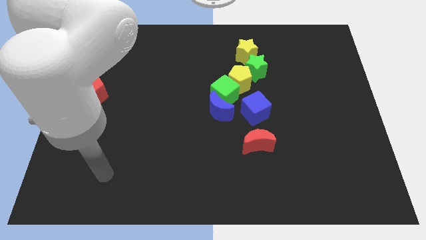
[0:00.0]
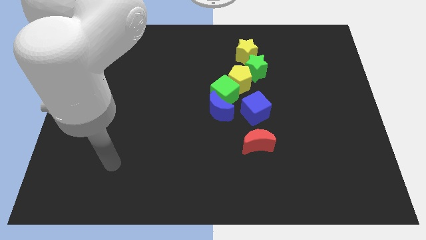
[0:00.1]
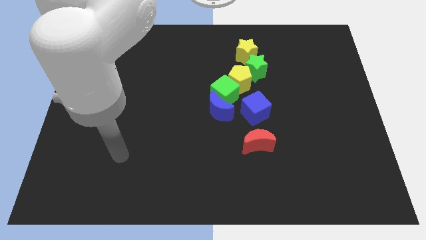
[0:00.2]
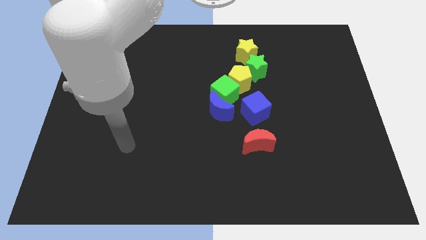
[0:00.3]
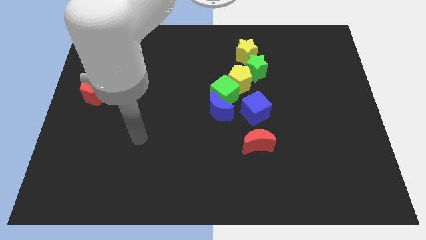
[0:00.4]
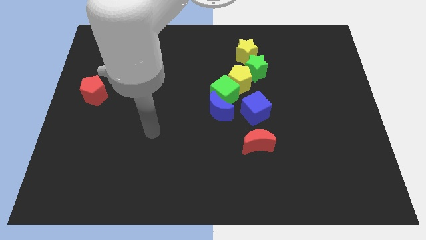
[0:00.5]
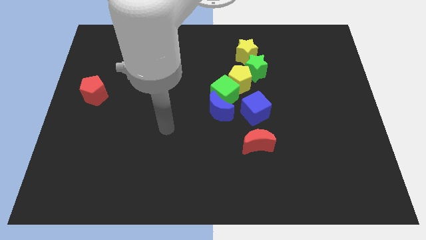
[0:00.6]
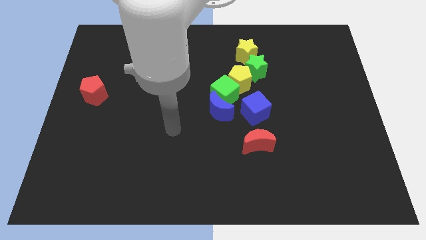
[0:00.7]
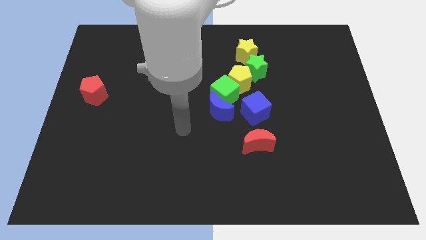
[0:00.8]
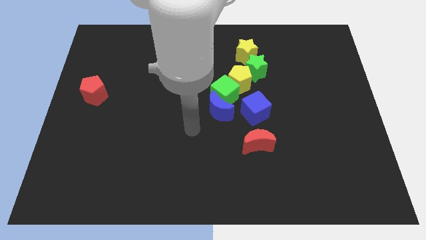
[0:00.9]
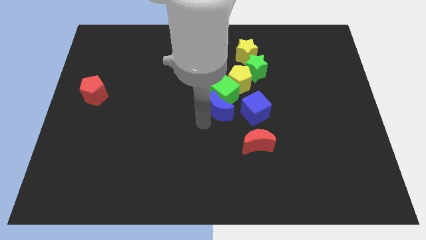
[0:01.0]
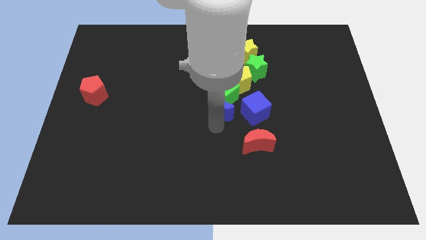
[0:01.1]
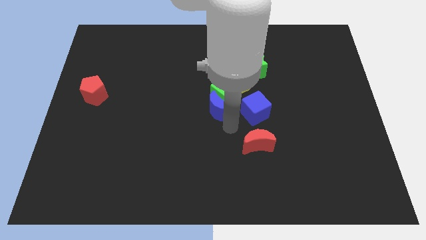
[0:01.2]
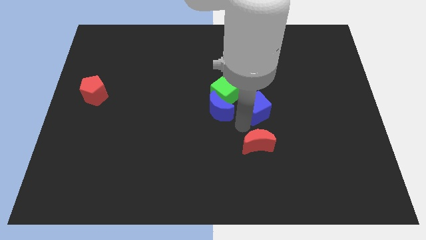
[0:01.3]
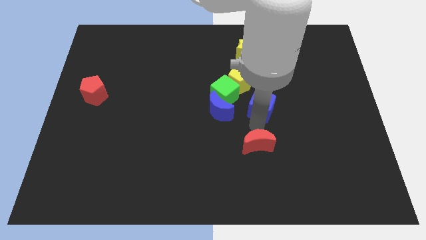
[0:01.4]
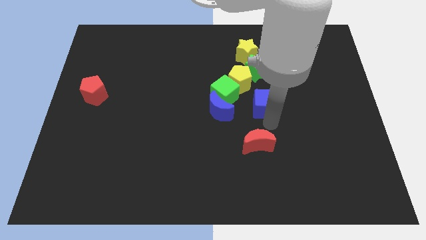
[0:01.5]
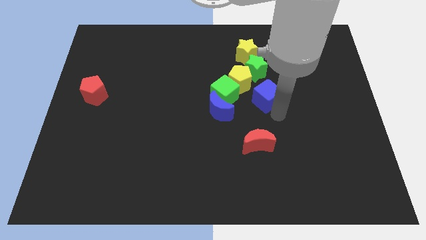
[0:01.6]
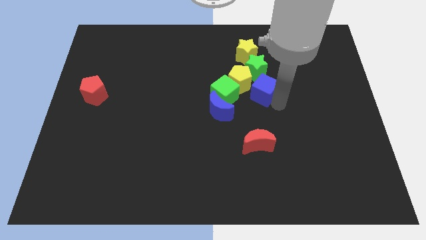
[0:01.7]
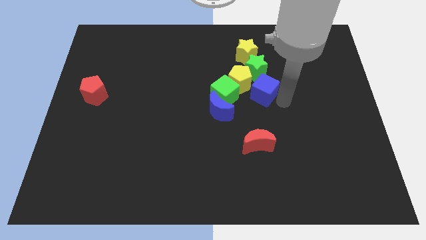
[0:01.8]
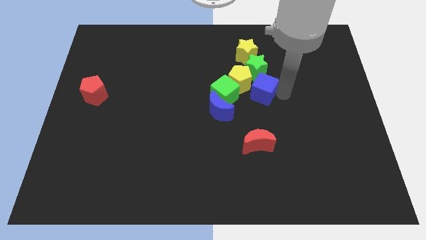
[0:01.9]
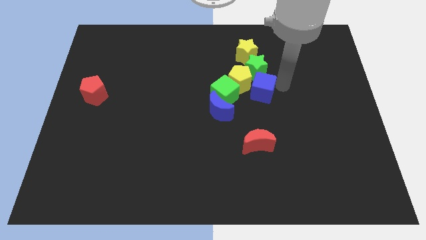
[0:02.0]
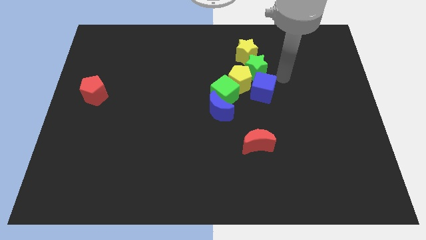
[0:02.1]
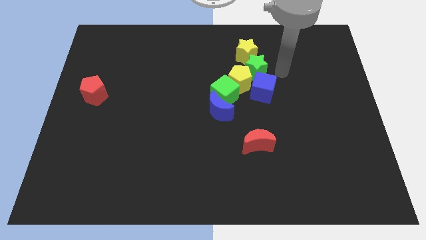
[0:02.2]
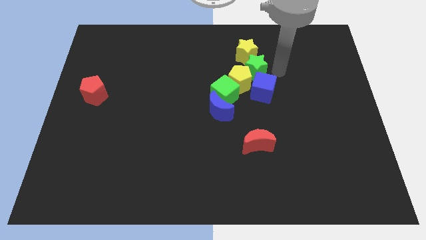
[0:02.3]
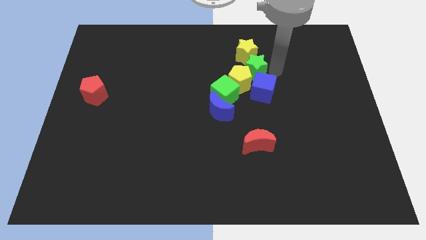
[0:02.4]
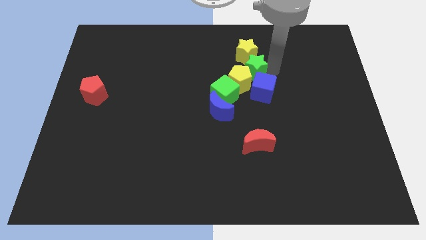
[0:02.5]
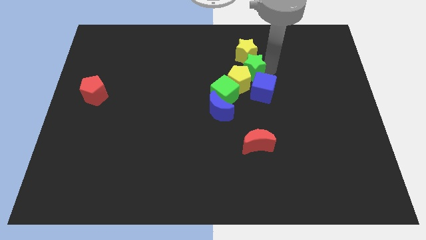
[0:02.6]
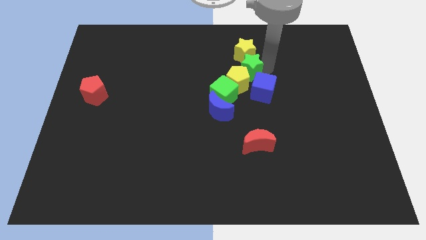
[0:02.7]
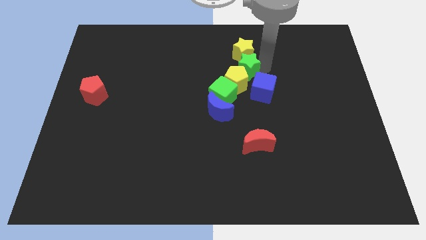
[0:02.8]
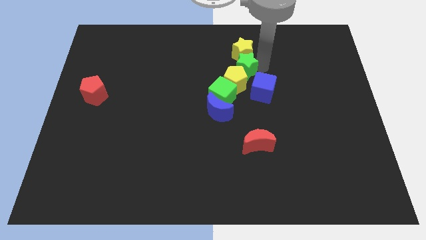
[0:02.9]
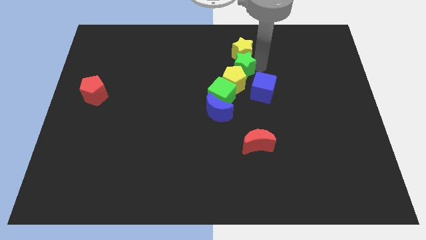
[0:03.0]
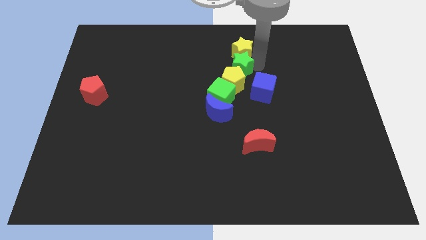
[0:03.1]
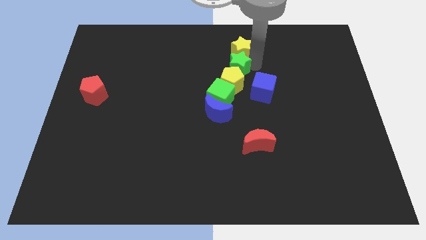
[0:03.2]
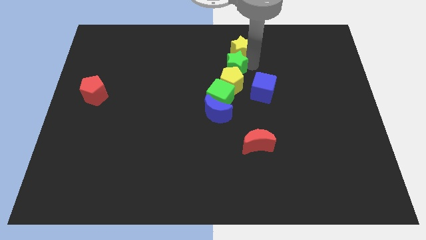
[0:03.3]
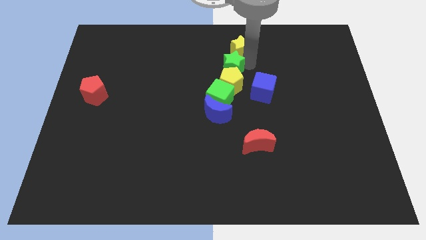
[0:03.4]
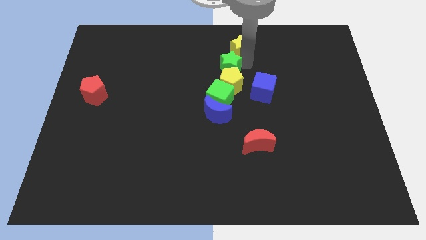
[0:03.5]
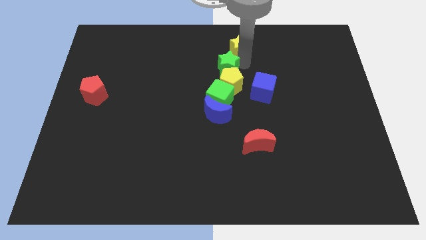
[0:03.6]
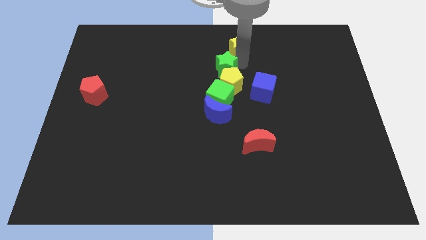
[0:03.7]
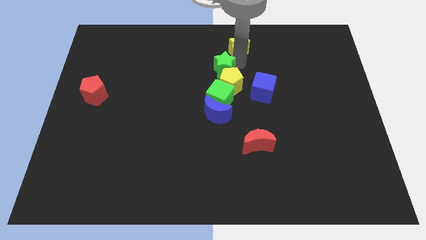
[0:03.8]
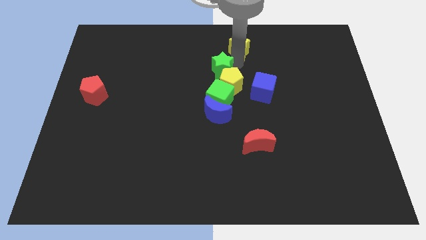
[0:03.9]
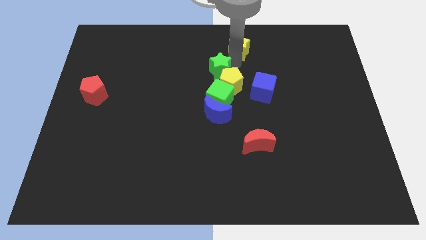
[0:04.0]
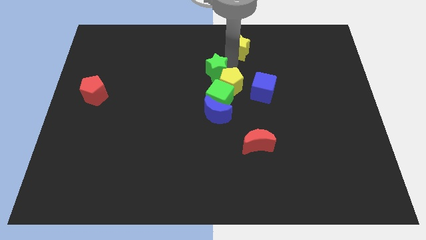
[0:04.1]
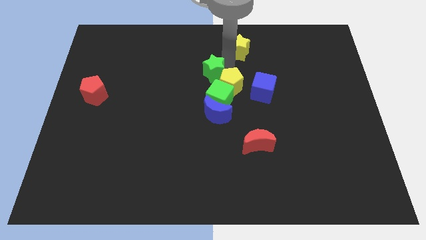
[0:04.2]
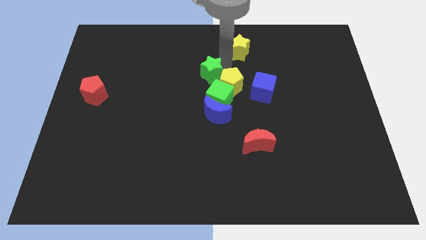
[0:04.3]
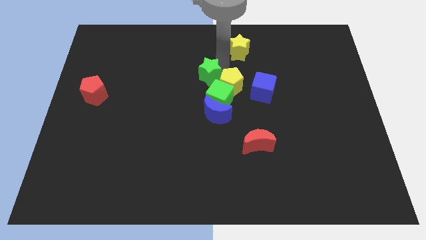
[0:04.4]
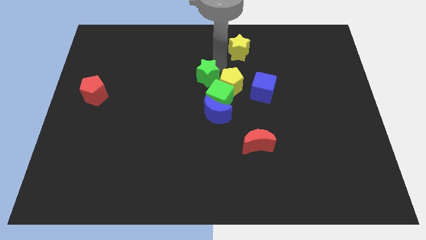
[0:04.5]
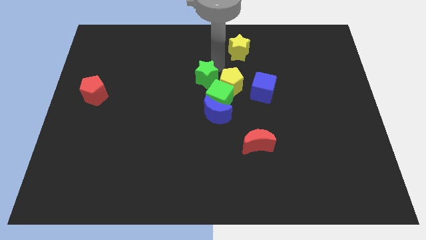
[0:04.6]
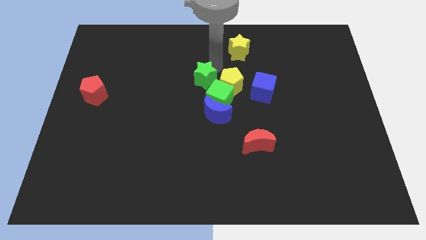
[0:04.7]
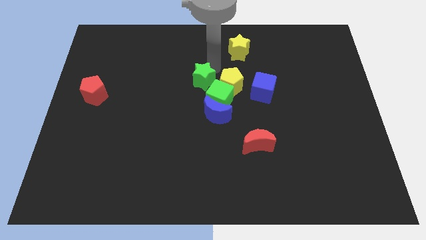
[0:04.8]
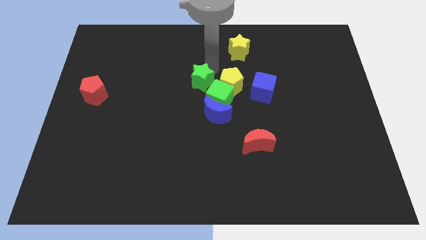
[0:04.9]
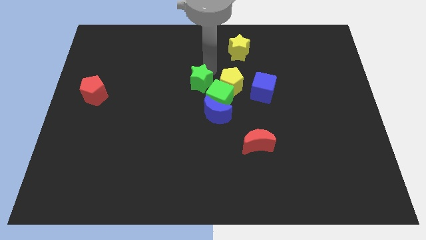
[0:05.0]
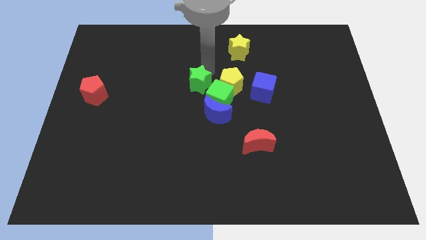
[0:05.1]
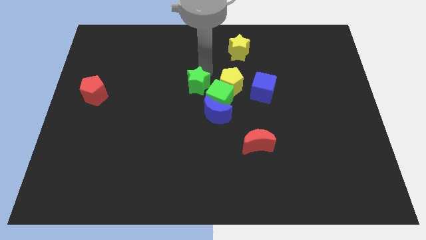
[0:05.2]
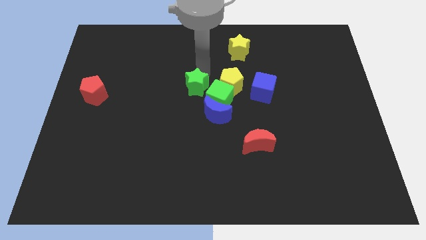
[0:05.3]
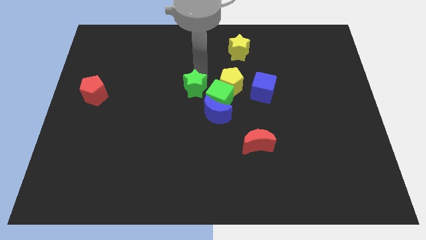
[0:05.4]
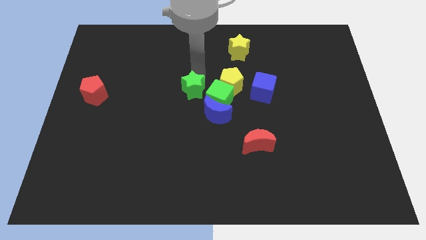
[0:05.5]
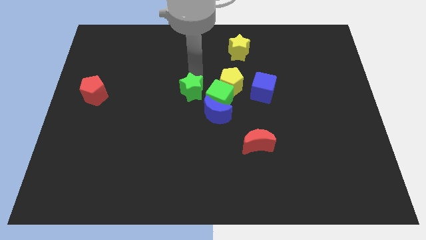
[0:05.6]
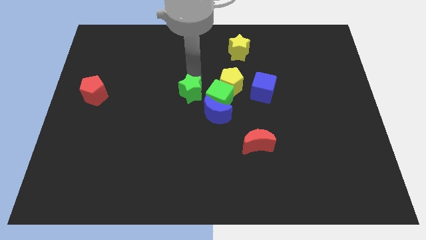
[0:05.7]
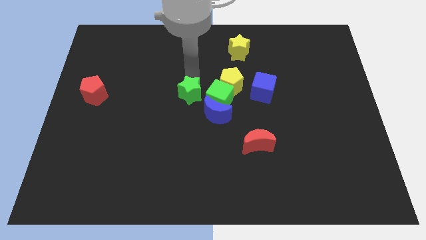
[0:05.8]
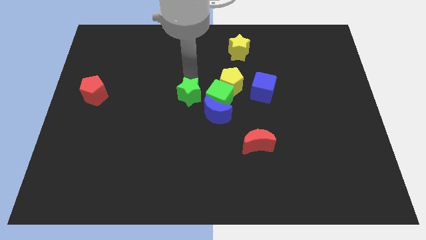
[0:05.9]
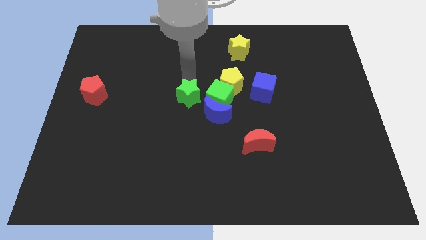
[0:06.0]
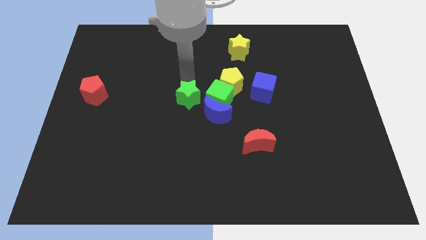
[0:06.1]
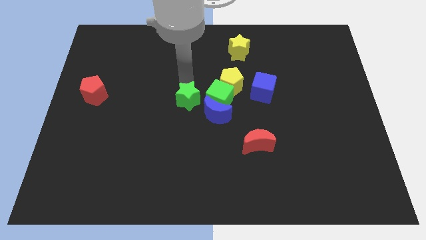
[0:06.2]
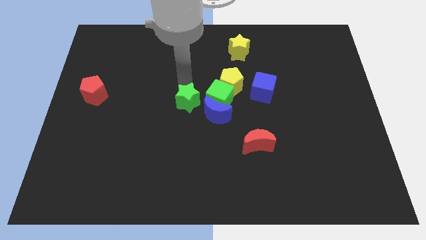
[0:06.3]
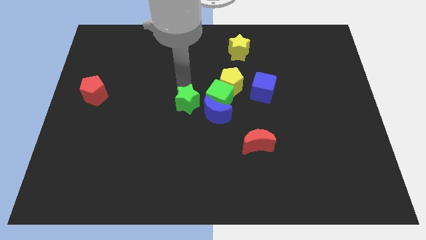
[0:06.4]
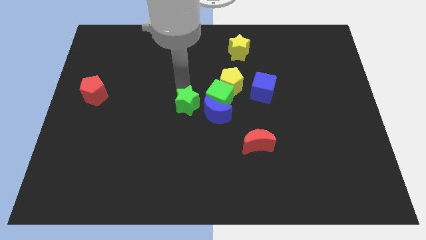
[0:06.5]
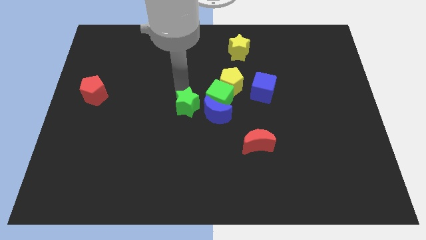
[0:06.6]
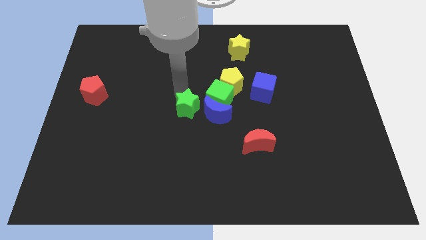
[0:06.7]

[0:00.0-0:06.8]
slide the green star diagonally downwards and to the left

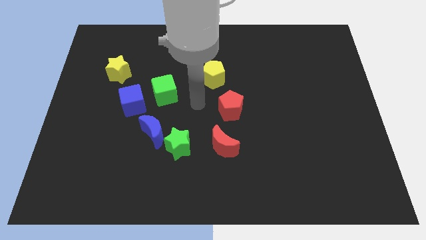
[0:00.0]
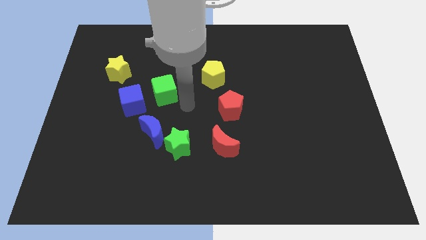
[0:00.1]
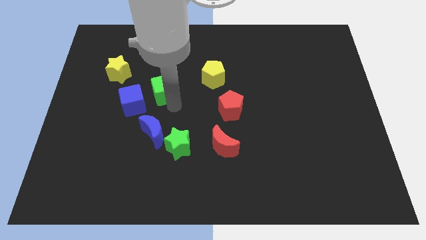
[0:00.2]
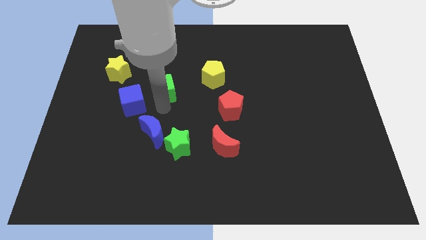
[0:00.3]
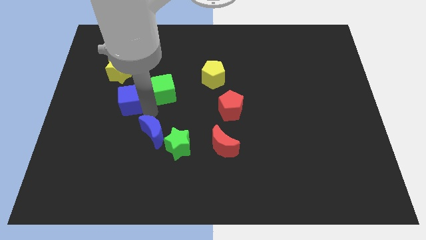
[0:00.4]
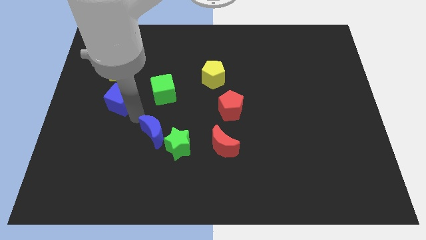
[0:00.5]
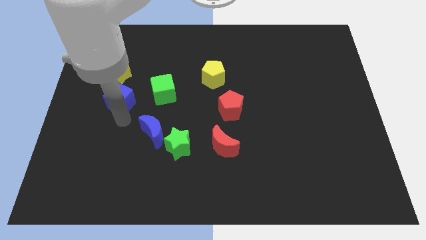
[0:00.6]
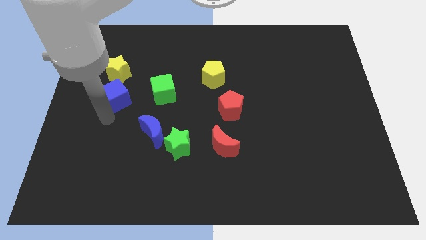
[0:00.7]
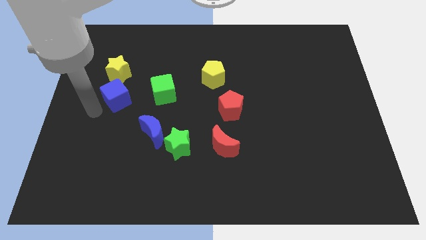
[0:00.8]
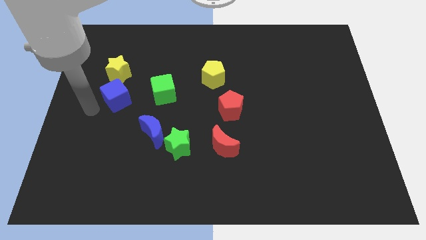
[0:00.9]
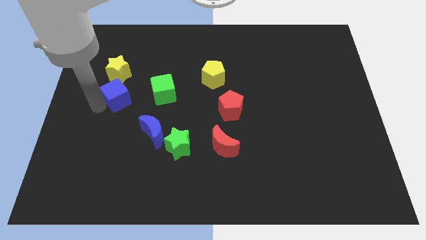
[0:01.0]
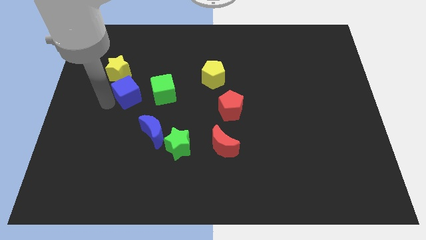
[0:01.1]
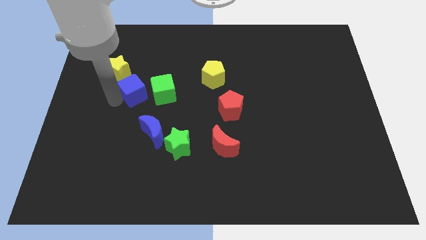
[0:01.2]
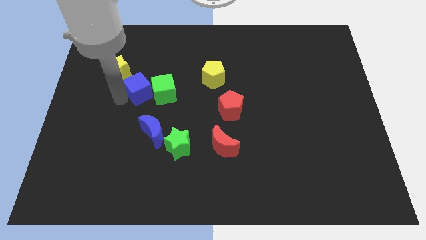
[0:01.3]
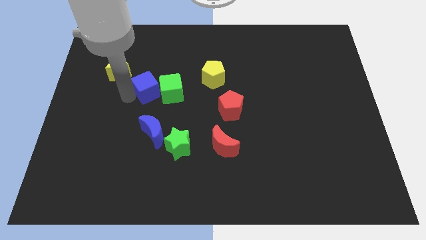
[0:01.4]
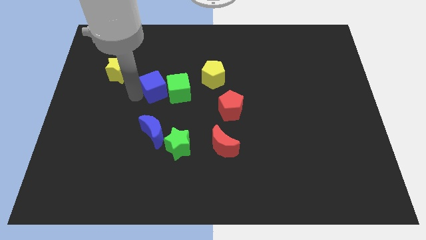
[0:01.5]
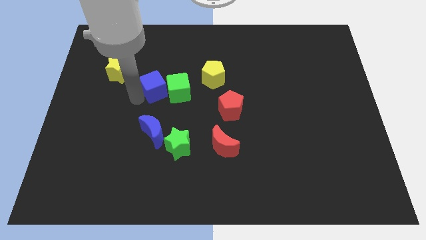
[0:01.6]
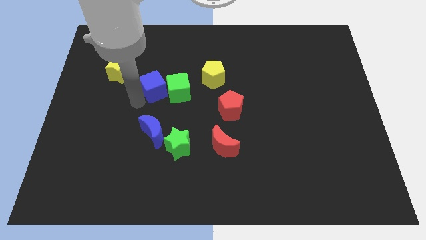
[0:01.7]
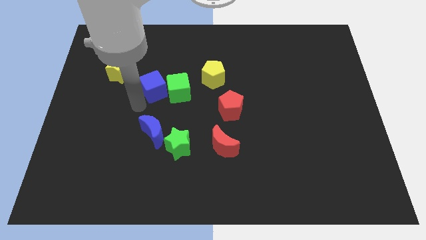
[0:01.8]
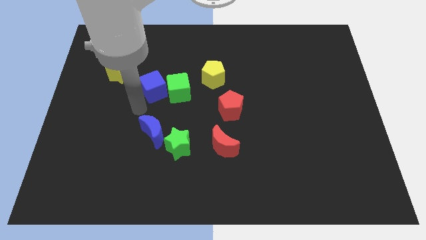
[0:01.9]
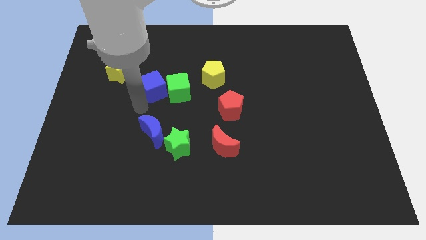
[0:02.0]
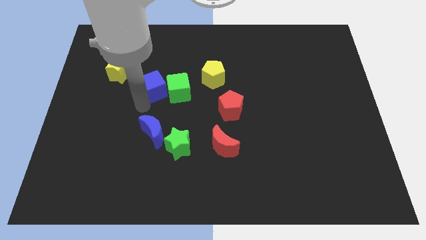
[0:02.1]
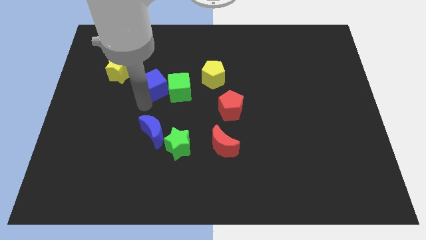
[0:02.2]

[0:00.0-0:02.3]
slide the blue cube a little bit up and then to the right
